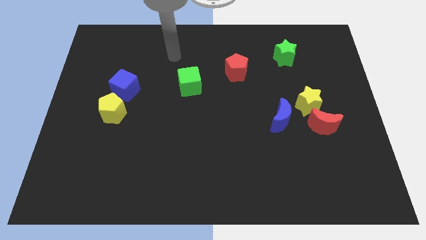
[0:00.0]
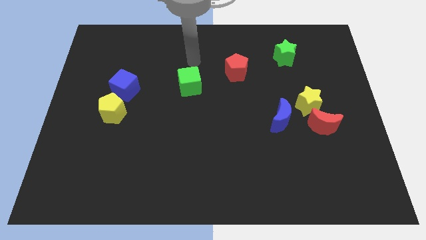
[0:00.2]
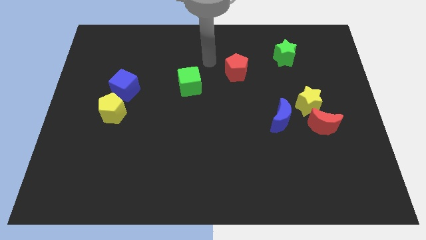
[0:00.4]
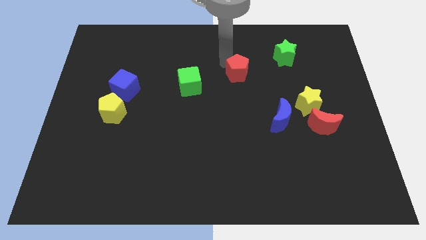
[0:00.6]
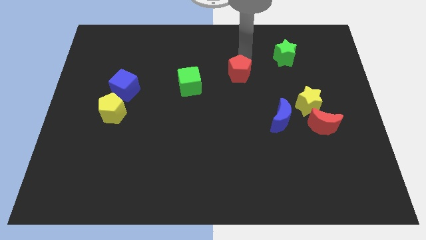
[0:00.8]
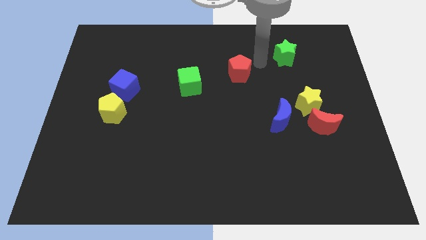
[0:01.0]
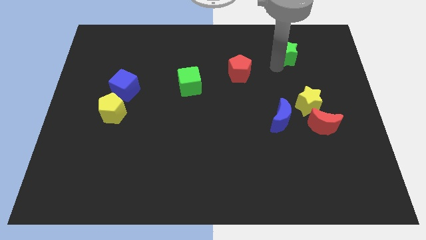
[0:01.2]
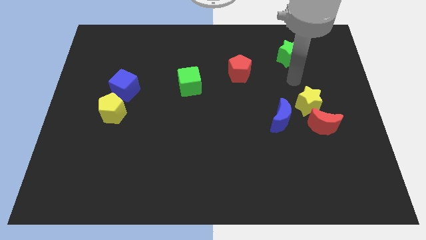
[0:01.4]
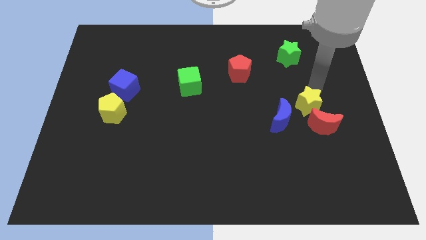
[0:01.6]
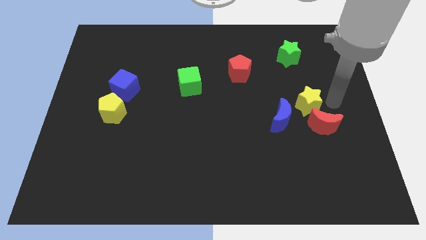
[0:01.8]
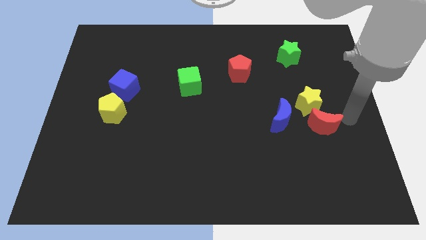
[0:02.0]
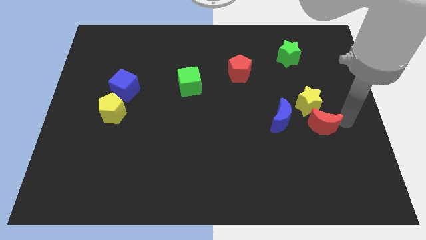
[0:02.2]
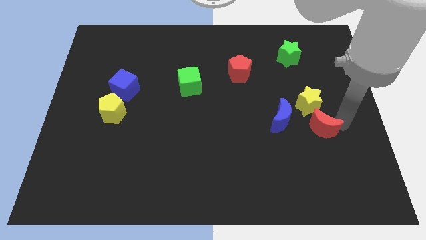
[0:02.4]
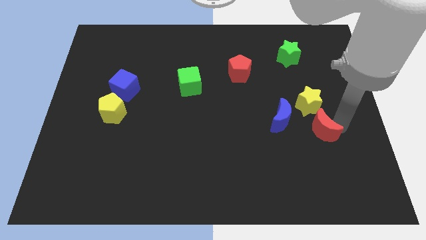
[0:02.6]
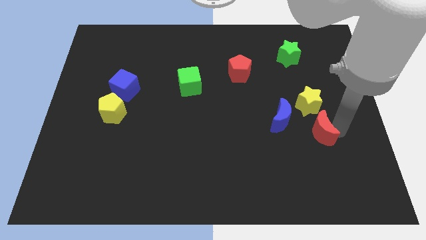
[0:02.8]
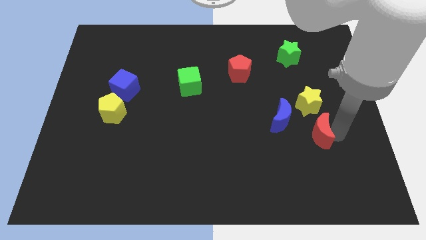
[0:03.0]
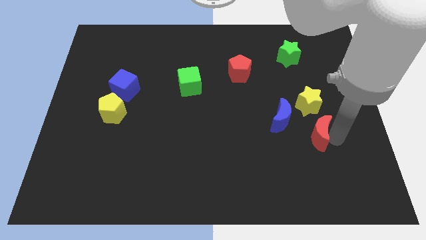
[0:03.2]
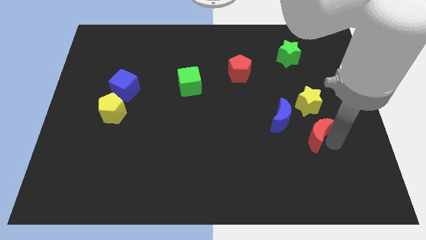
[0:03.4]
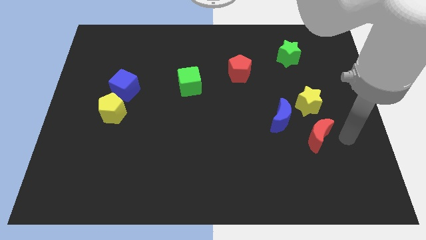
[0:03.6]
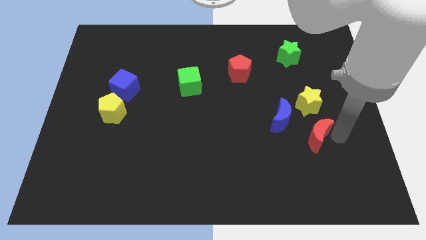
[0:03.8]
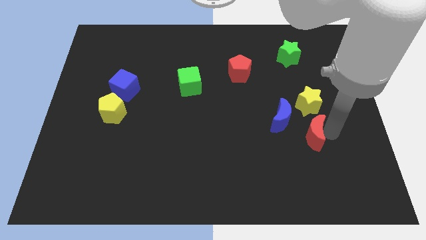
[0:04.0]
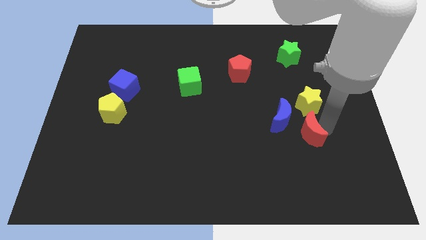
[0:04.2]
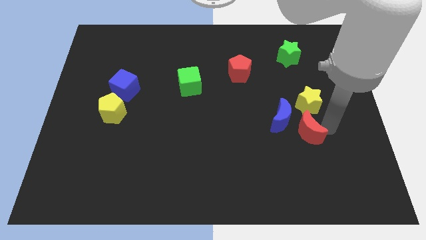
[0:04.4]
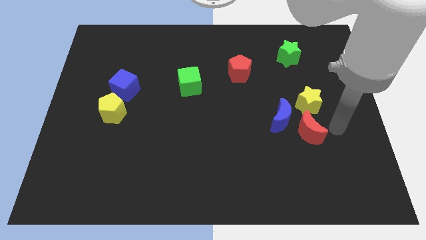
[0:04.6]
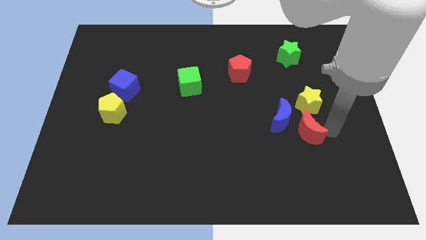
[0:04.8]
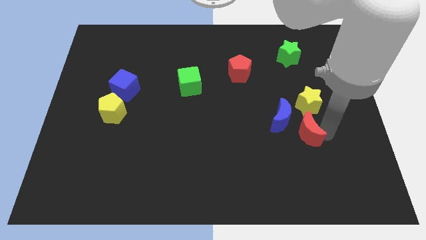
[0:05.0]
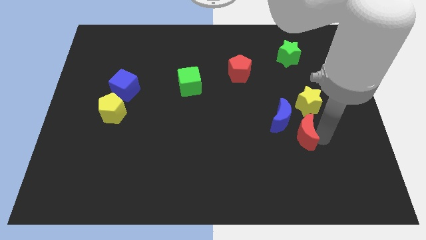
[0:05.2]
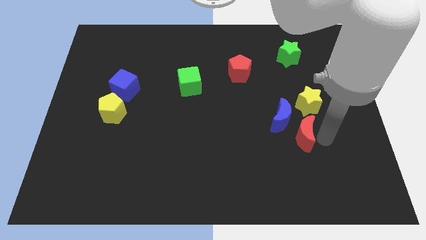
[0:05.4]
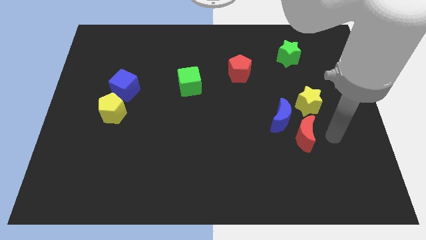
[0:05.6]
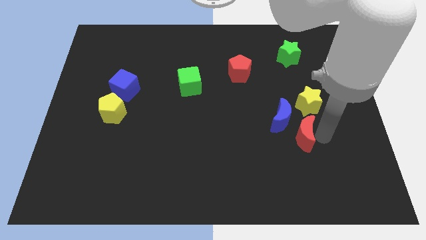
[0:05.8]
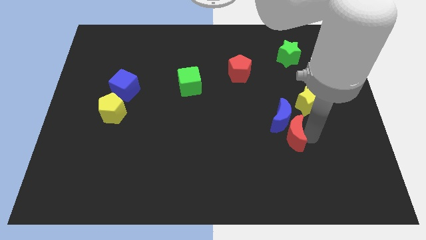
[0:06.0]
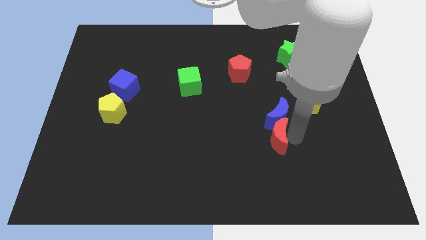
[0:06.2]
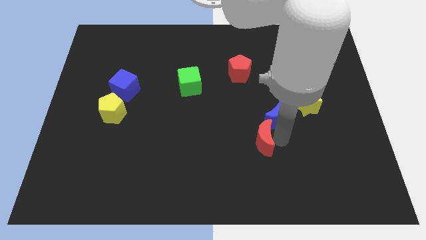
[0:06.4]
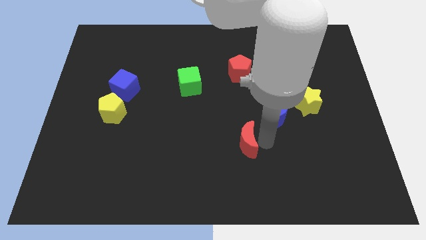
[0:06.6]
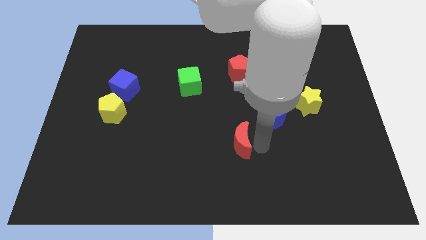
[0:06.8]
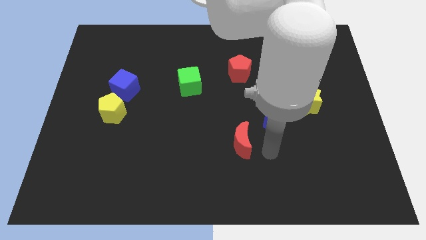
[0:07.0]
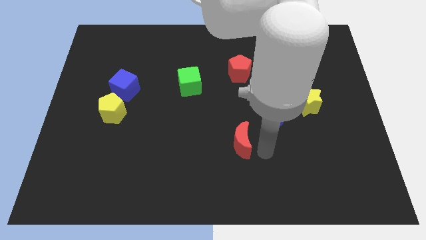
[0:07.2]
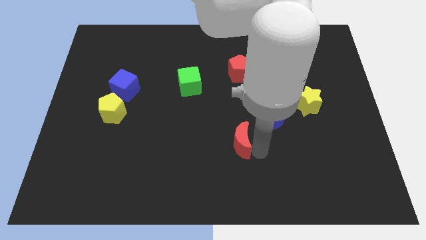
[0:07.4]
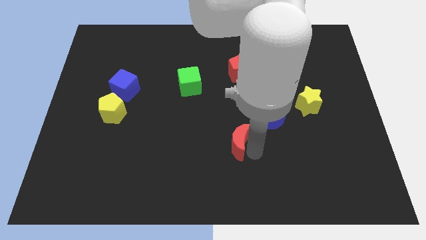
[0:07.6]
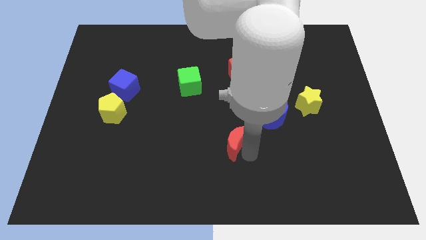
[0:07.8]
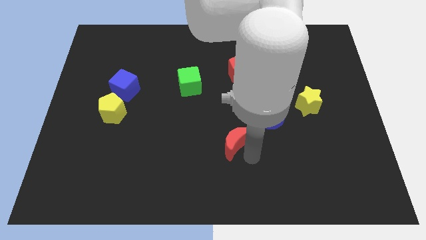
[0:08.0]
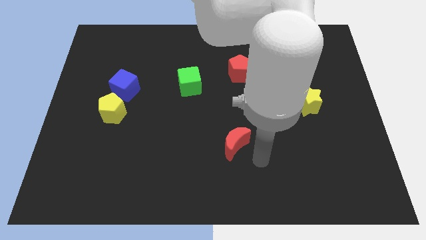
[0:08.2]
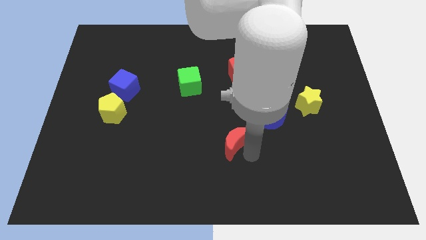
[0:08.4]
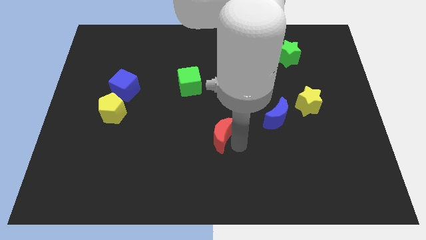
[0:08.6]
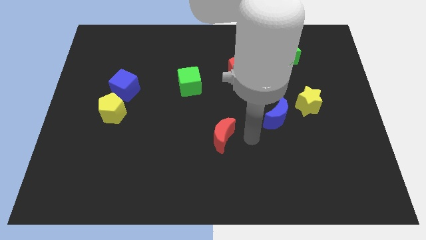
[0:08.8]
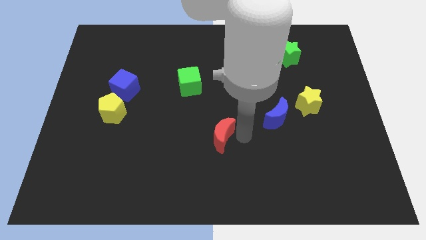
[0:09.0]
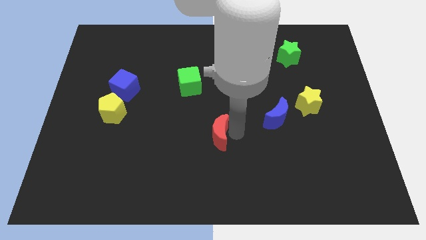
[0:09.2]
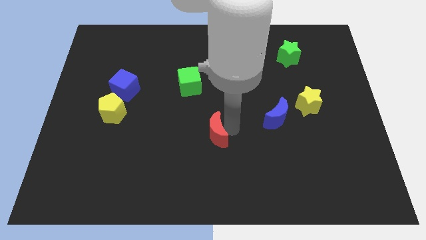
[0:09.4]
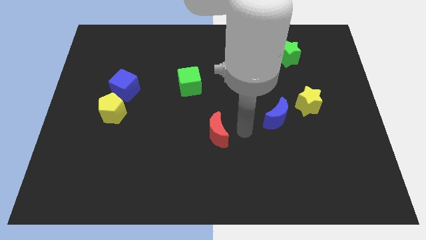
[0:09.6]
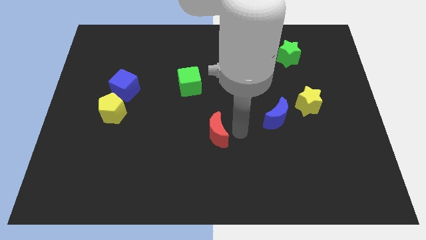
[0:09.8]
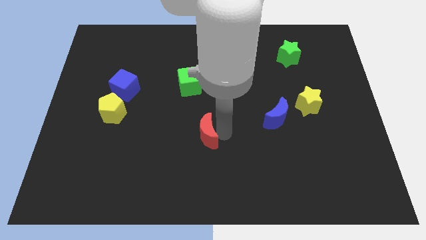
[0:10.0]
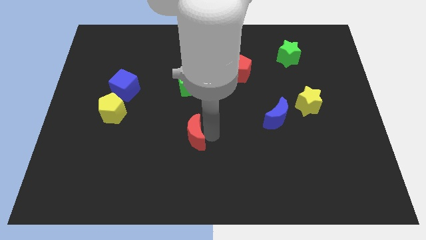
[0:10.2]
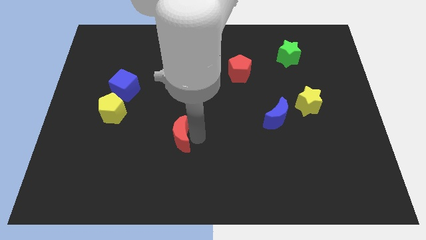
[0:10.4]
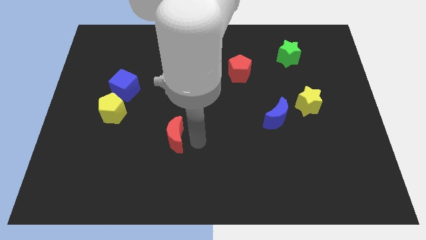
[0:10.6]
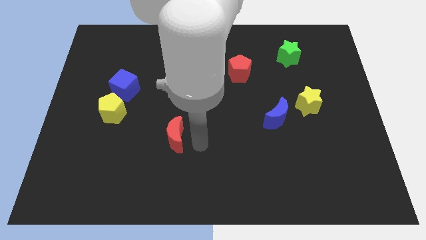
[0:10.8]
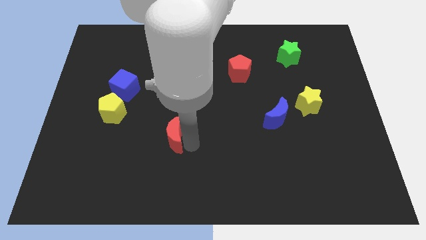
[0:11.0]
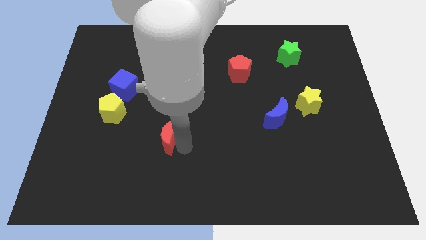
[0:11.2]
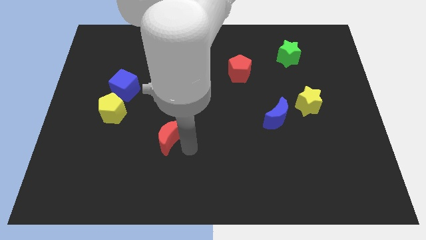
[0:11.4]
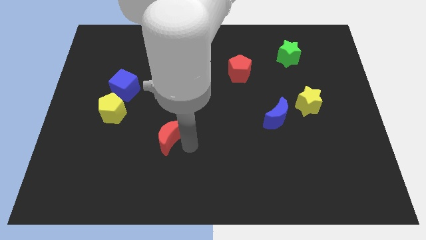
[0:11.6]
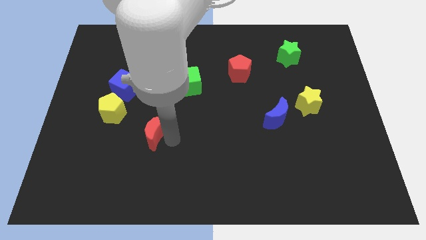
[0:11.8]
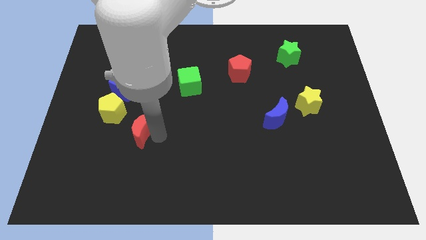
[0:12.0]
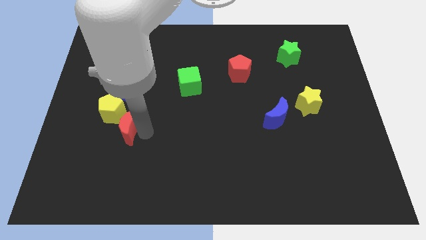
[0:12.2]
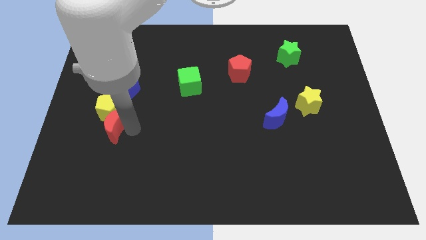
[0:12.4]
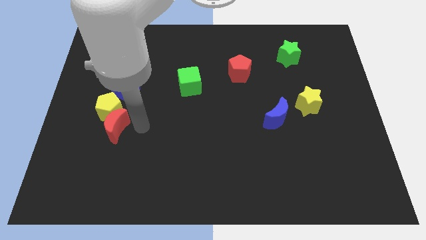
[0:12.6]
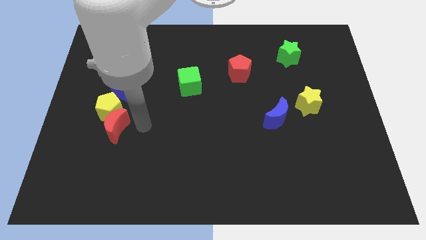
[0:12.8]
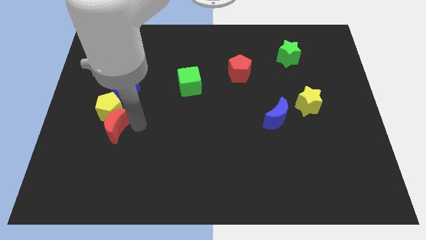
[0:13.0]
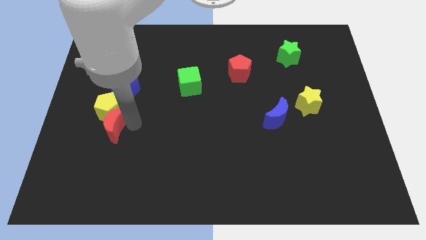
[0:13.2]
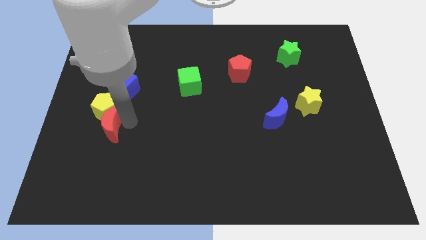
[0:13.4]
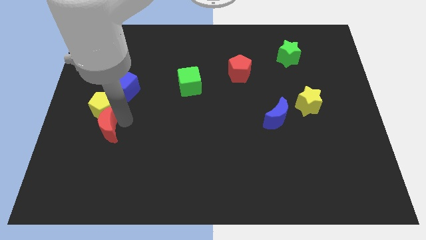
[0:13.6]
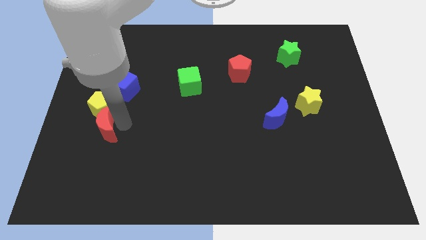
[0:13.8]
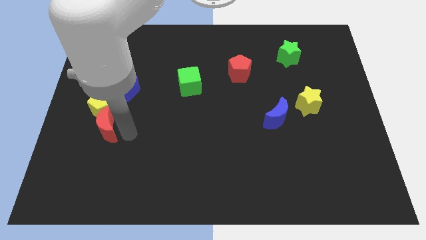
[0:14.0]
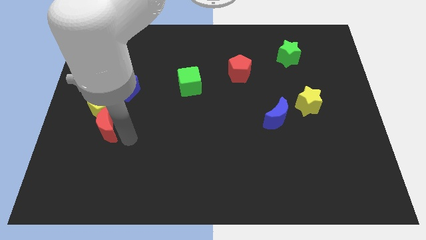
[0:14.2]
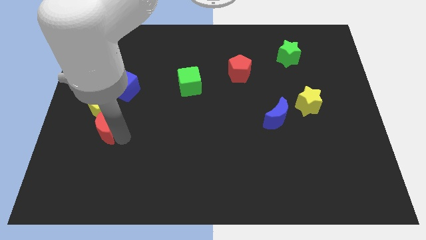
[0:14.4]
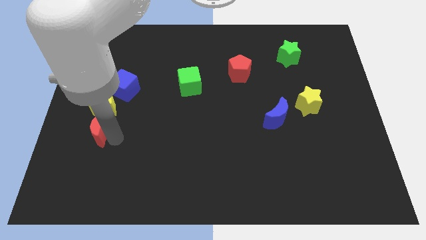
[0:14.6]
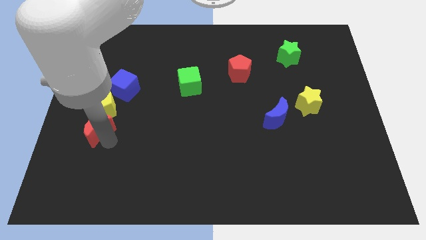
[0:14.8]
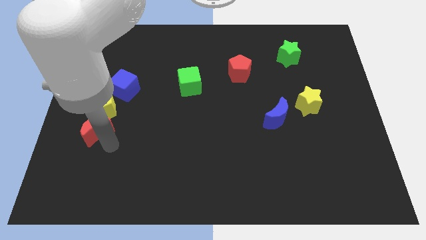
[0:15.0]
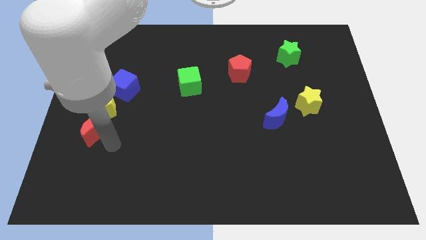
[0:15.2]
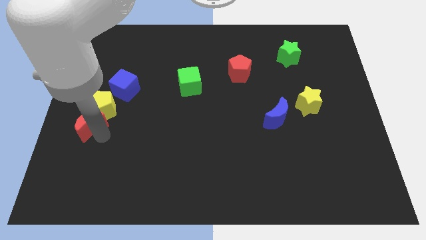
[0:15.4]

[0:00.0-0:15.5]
put the red moon to the left side
